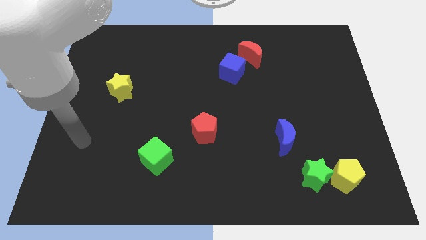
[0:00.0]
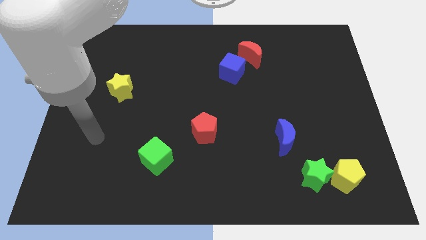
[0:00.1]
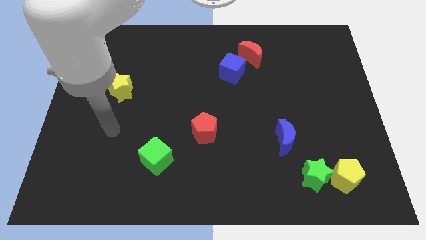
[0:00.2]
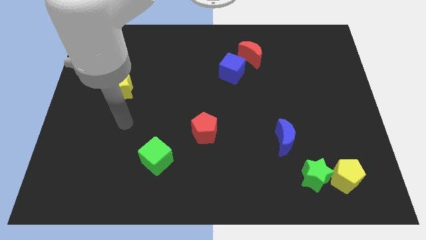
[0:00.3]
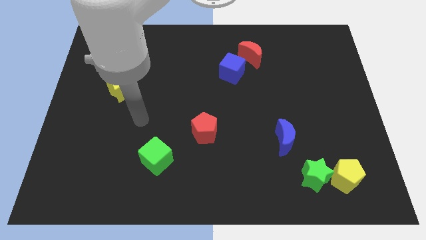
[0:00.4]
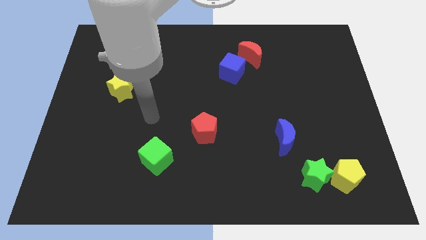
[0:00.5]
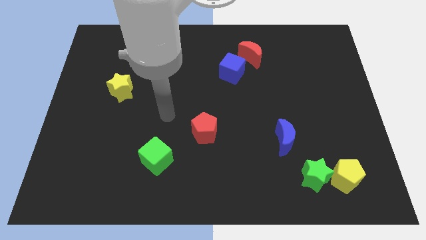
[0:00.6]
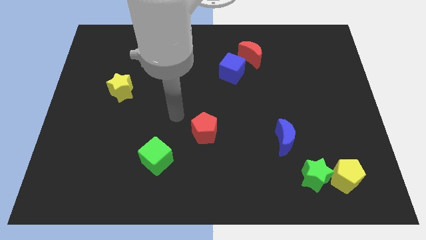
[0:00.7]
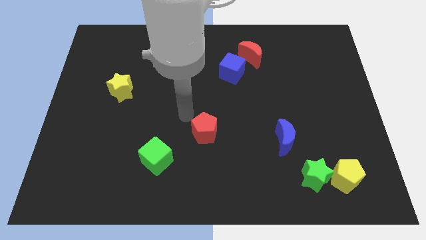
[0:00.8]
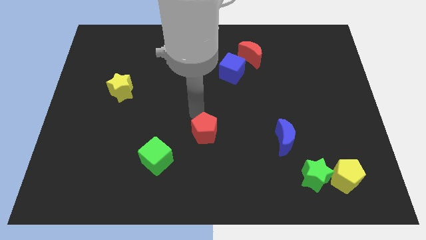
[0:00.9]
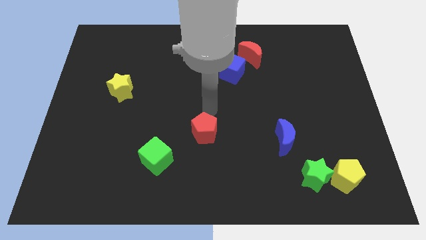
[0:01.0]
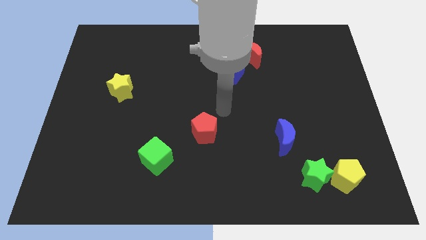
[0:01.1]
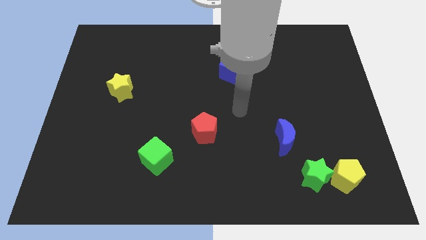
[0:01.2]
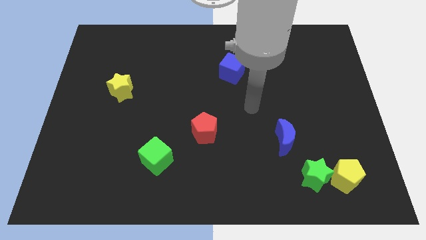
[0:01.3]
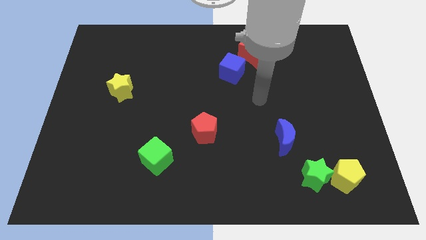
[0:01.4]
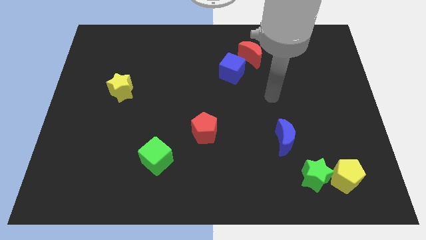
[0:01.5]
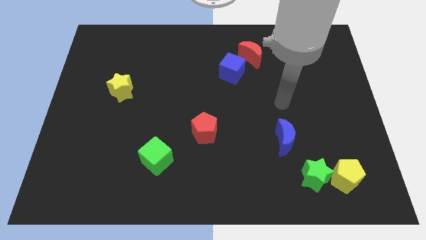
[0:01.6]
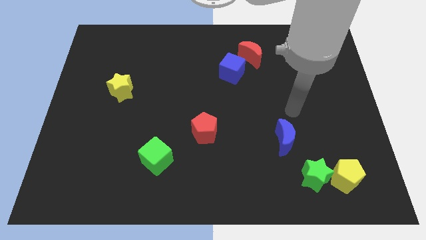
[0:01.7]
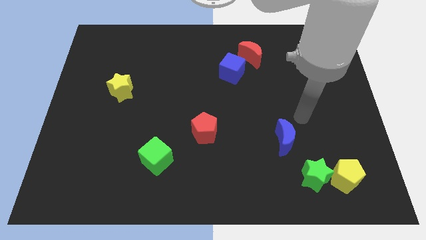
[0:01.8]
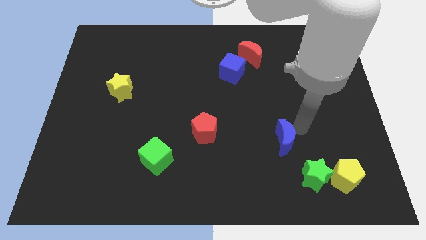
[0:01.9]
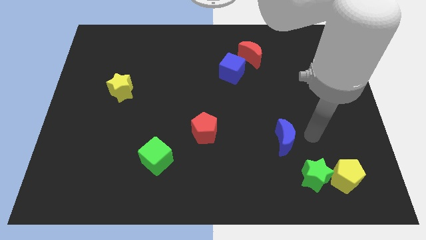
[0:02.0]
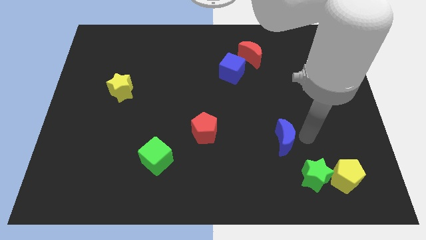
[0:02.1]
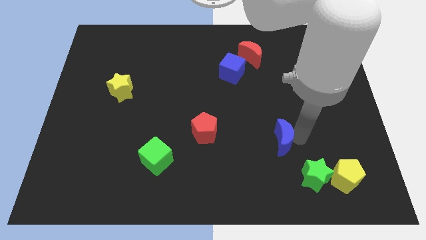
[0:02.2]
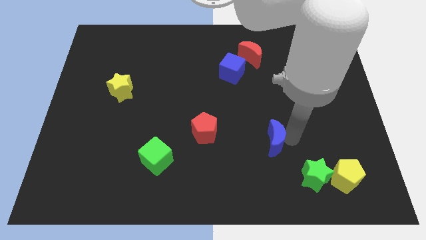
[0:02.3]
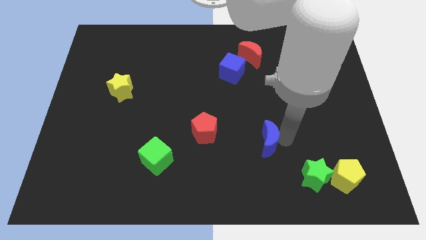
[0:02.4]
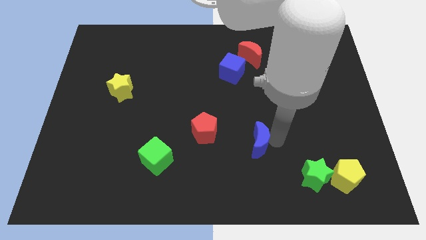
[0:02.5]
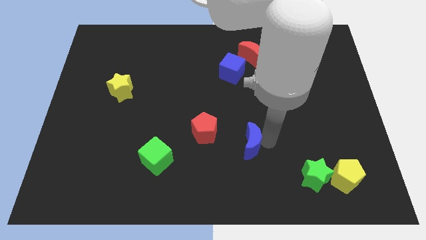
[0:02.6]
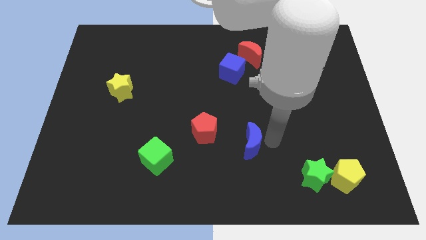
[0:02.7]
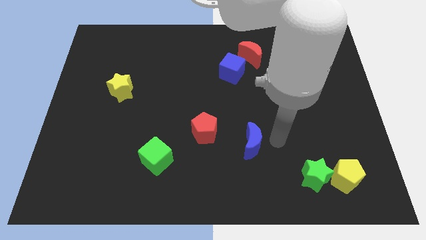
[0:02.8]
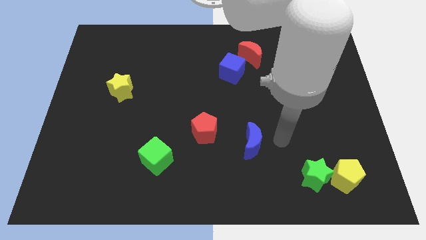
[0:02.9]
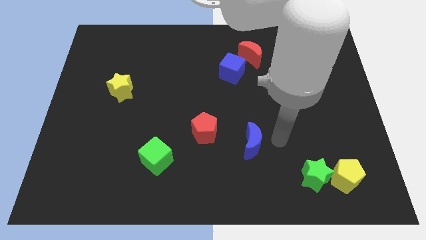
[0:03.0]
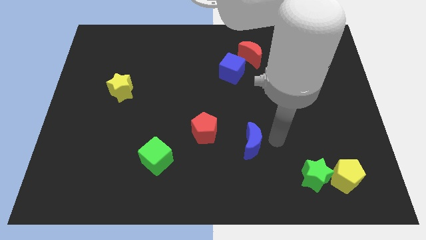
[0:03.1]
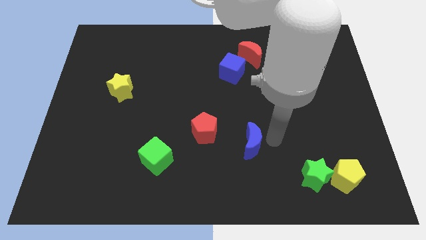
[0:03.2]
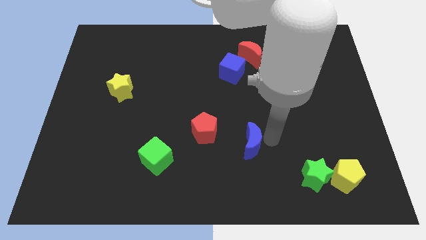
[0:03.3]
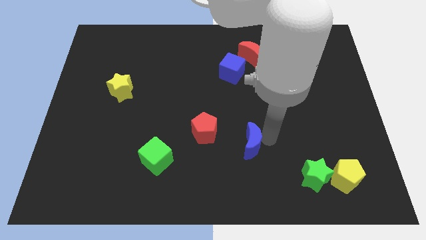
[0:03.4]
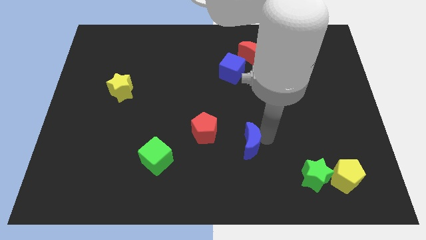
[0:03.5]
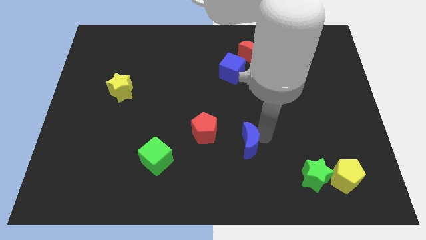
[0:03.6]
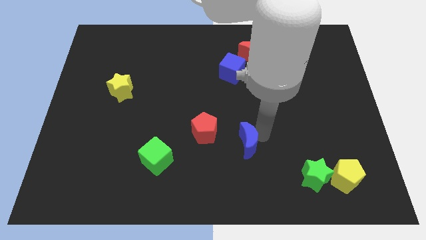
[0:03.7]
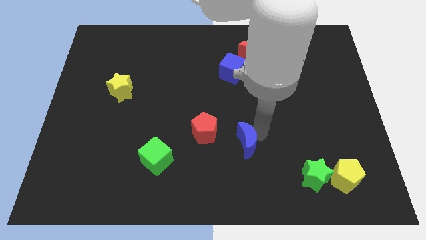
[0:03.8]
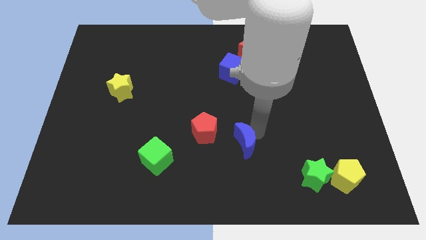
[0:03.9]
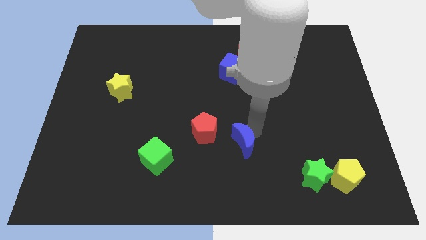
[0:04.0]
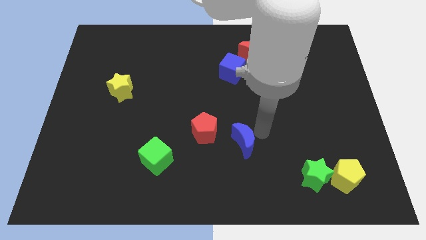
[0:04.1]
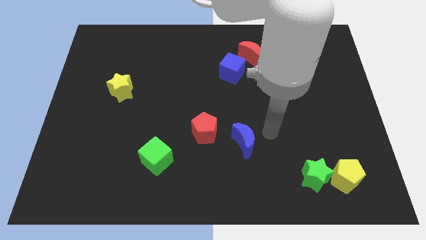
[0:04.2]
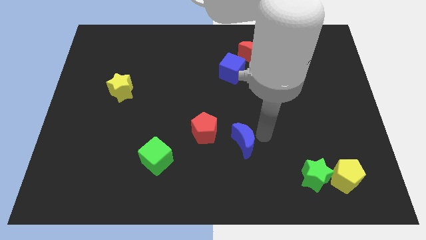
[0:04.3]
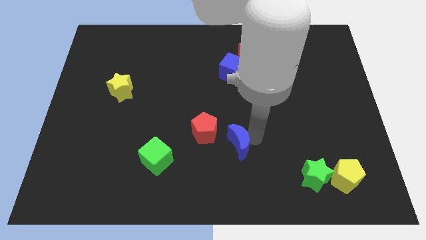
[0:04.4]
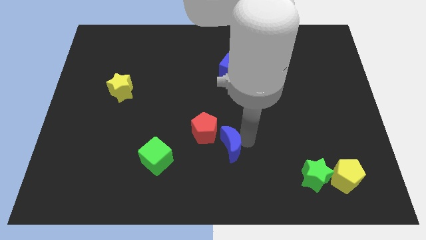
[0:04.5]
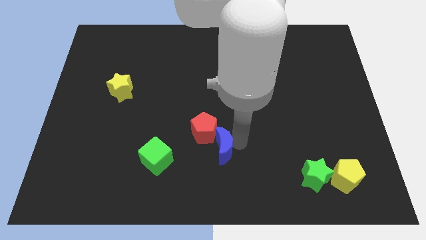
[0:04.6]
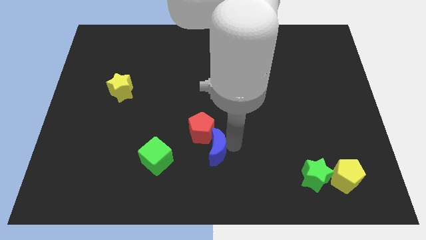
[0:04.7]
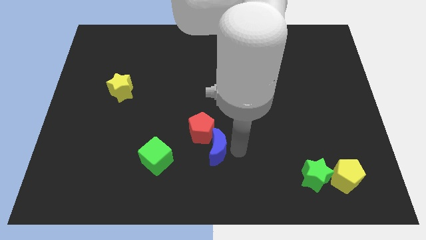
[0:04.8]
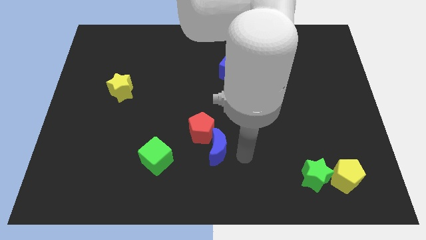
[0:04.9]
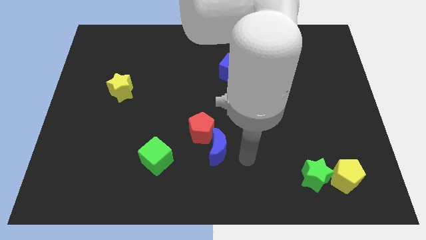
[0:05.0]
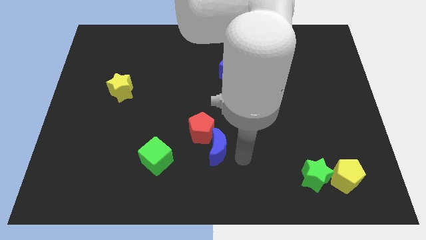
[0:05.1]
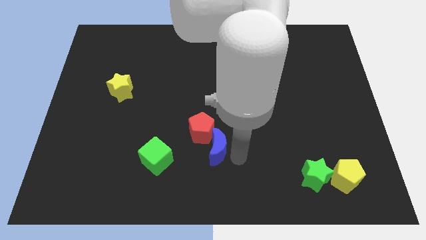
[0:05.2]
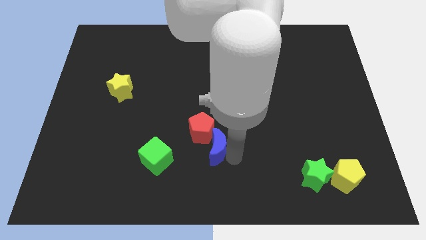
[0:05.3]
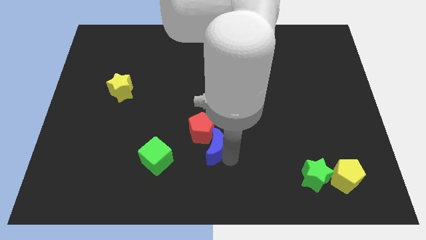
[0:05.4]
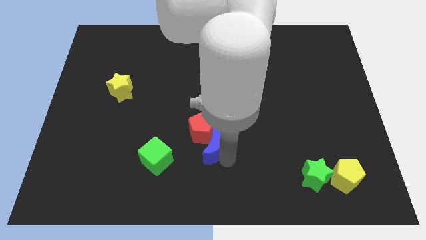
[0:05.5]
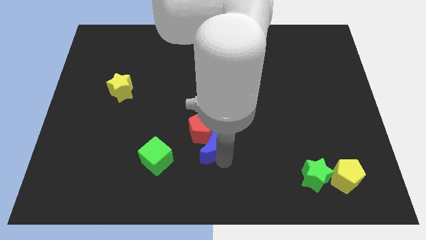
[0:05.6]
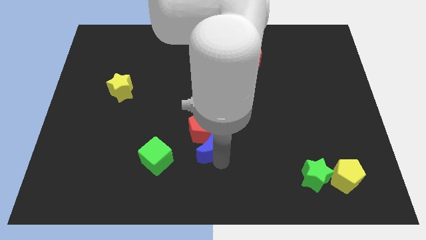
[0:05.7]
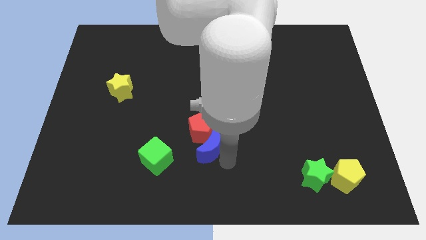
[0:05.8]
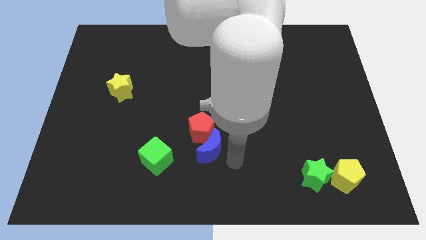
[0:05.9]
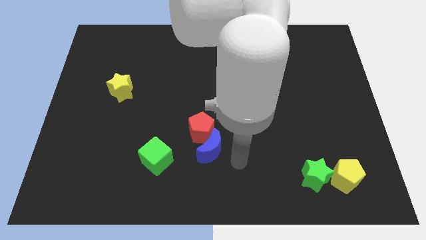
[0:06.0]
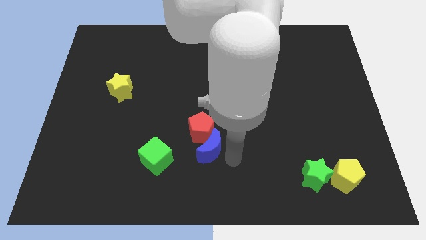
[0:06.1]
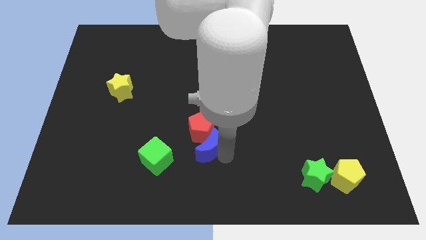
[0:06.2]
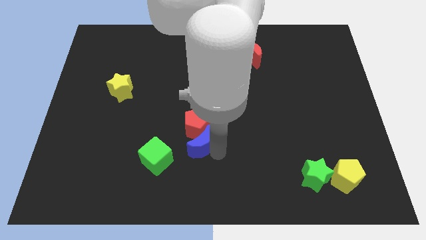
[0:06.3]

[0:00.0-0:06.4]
move the blue moon to the top right side of the green cube

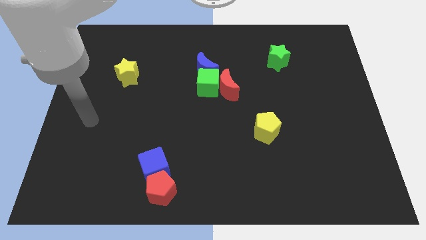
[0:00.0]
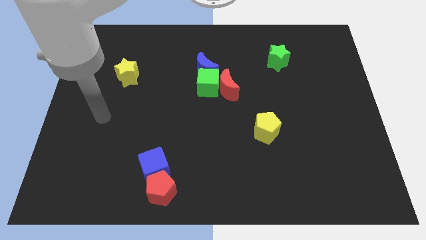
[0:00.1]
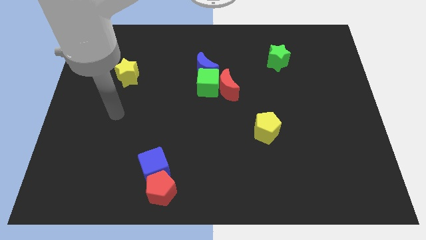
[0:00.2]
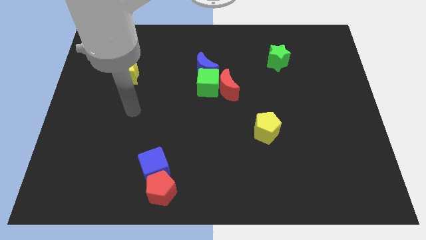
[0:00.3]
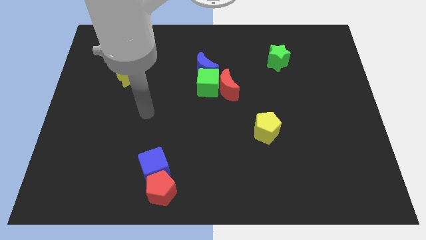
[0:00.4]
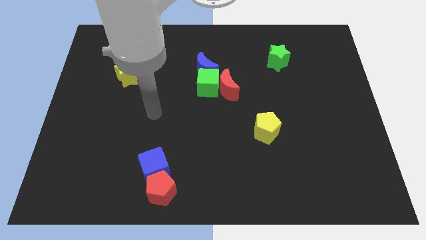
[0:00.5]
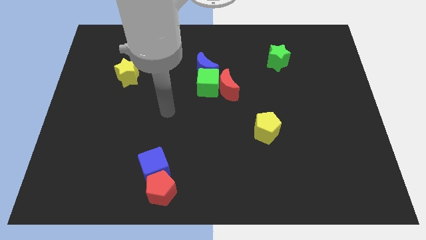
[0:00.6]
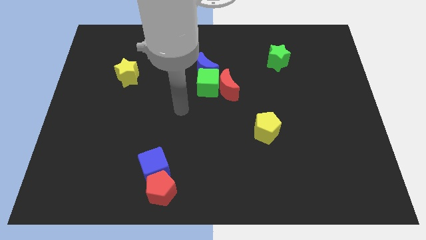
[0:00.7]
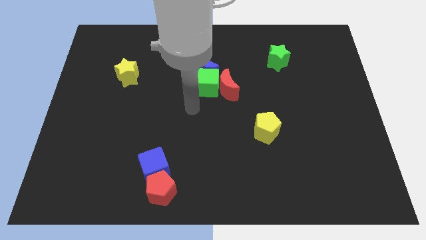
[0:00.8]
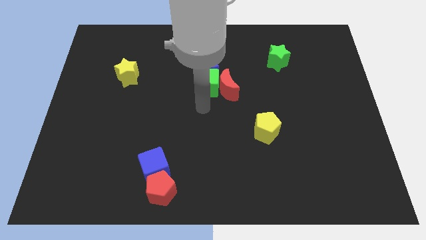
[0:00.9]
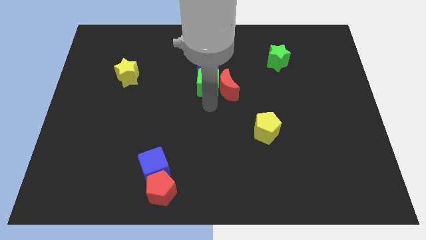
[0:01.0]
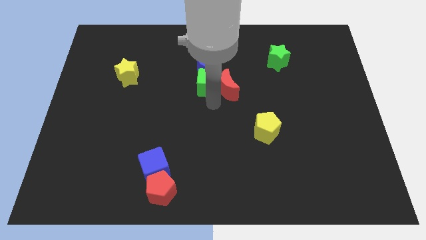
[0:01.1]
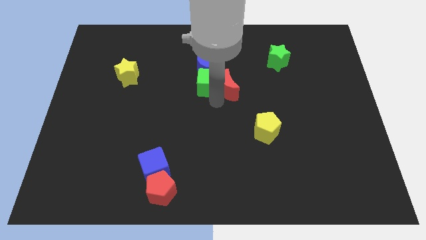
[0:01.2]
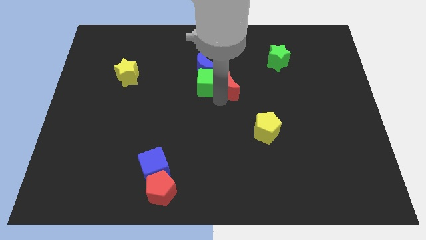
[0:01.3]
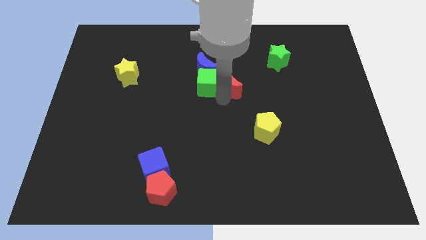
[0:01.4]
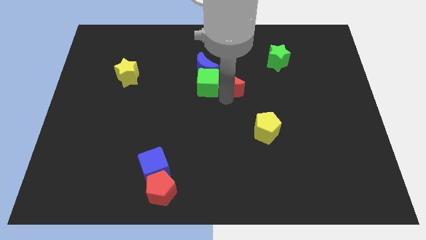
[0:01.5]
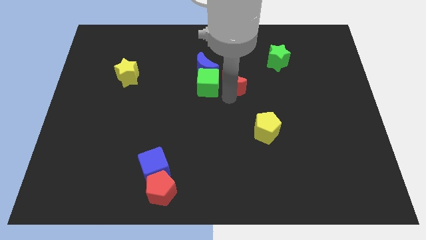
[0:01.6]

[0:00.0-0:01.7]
move the red moon to the right side of the blue moon
